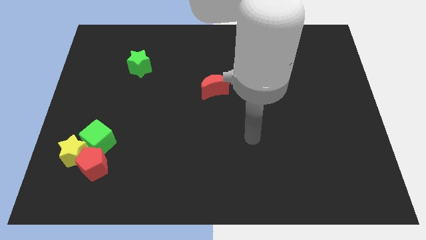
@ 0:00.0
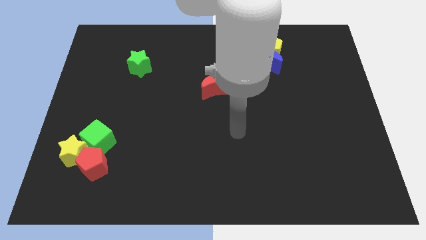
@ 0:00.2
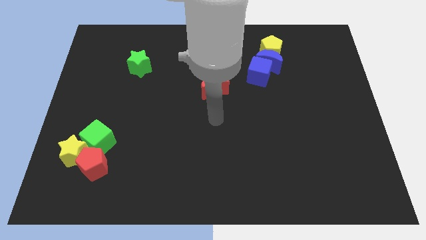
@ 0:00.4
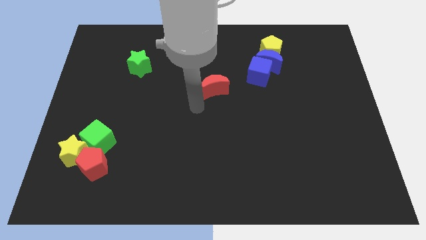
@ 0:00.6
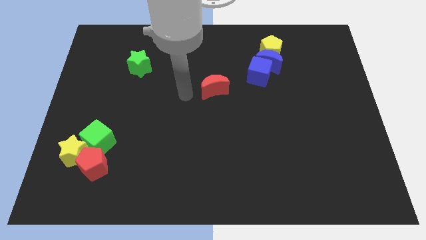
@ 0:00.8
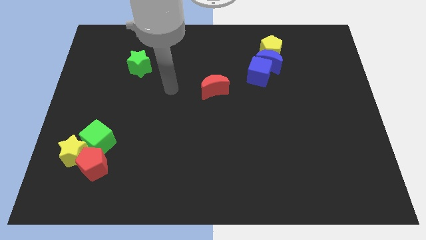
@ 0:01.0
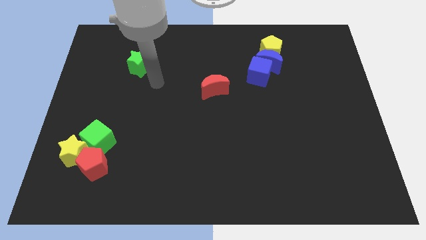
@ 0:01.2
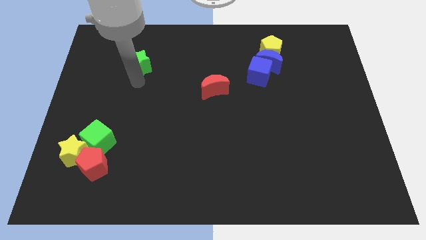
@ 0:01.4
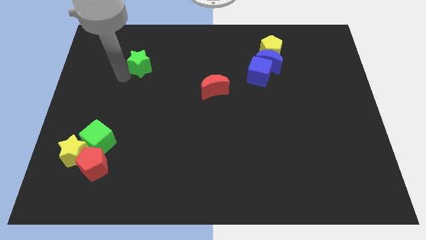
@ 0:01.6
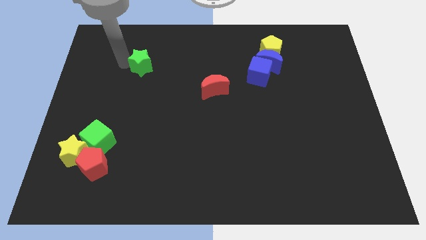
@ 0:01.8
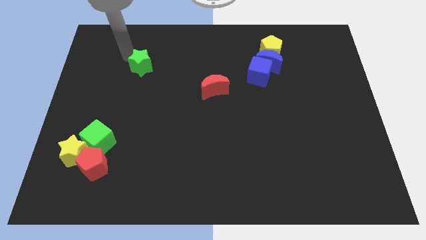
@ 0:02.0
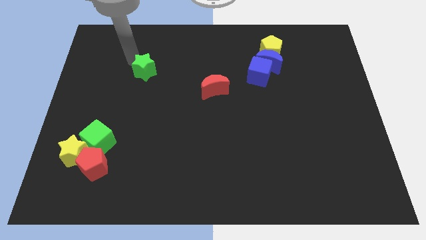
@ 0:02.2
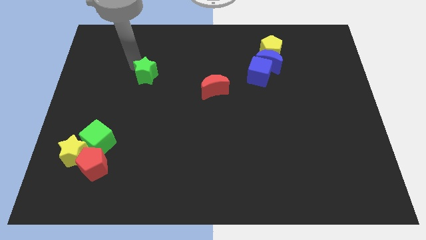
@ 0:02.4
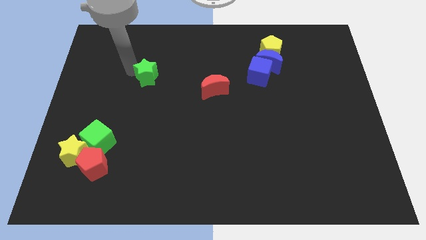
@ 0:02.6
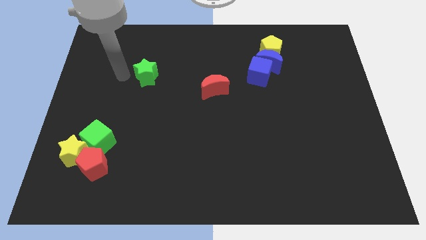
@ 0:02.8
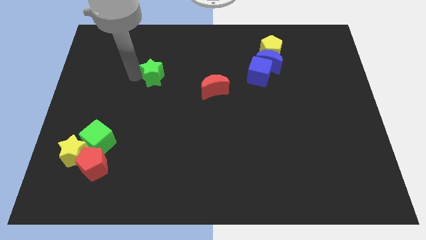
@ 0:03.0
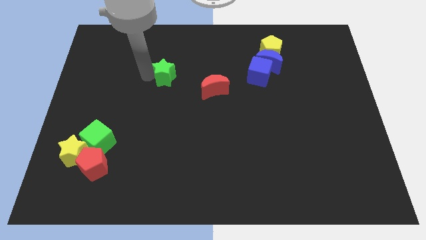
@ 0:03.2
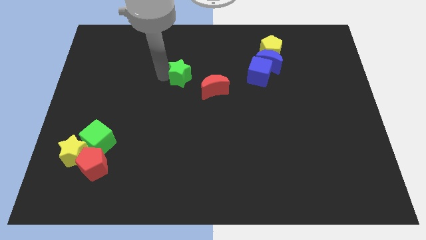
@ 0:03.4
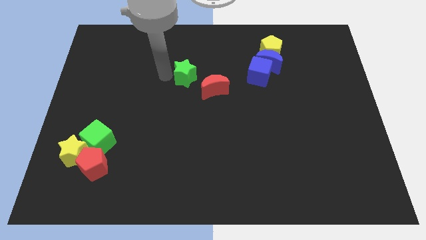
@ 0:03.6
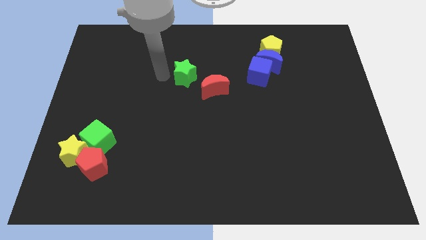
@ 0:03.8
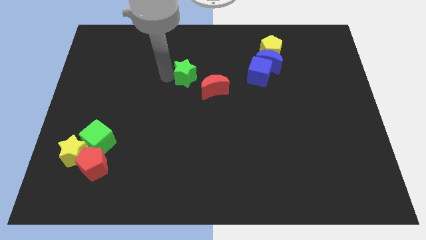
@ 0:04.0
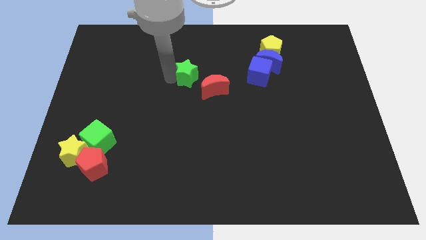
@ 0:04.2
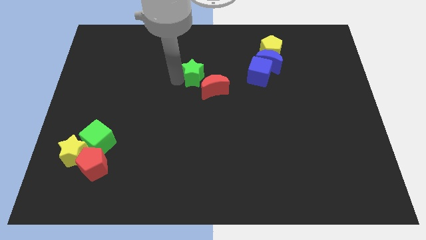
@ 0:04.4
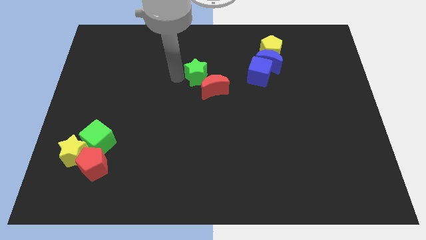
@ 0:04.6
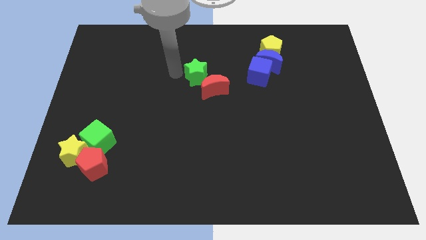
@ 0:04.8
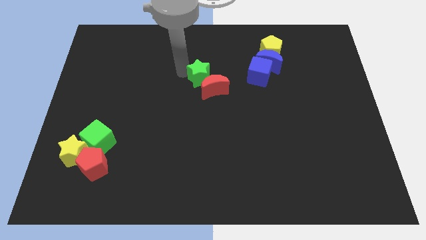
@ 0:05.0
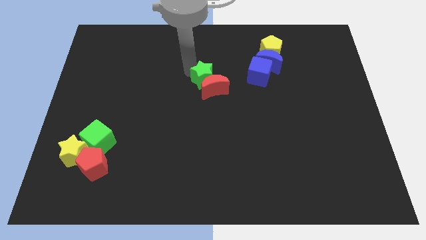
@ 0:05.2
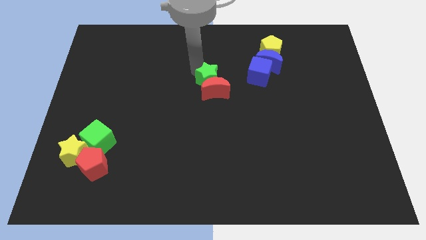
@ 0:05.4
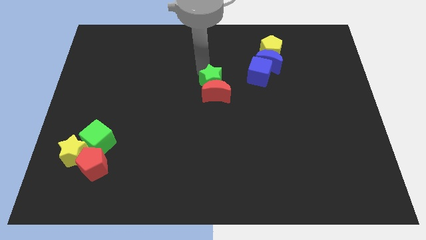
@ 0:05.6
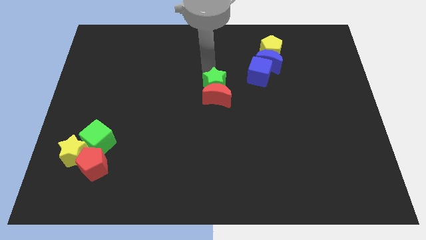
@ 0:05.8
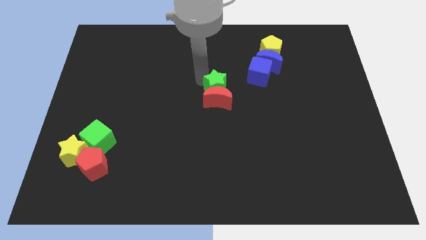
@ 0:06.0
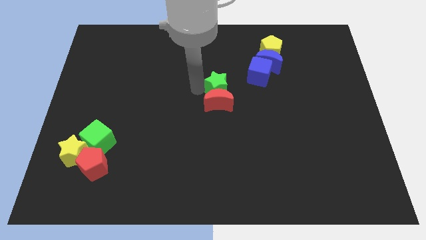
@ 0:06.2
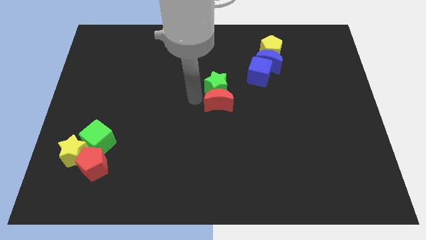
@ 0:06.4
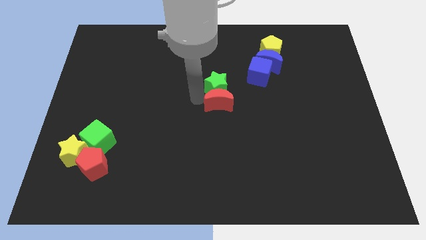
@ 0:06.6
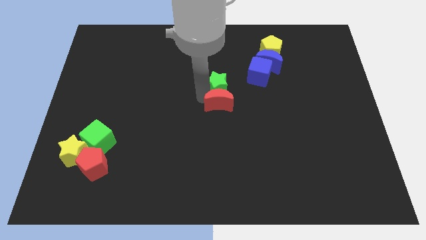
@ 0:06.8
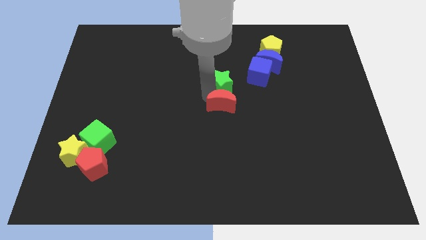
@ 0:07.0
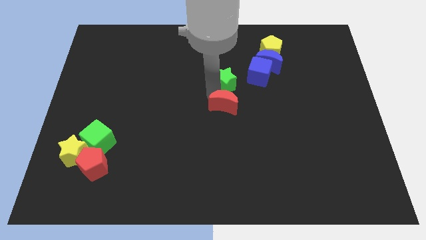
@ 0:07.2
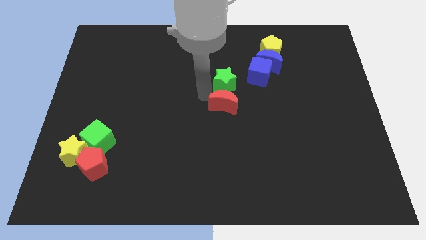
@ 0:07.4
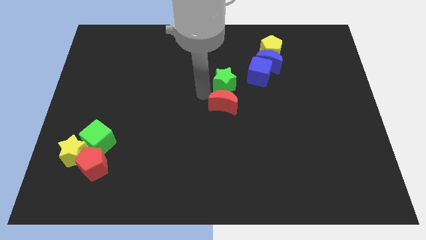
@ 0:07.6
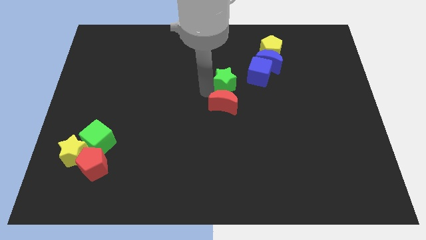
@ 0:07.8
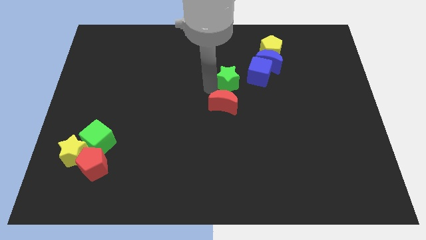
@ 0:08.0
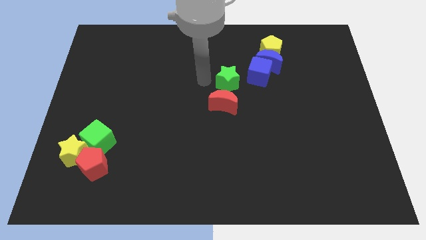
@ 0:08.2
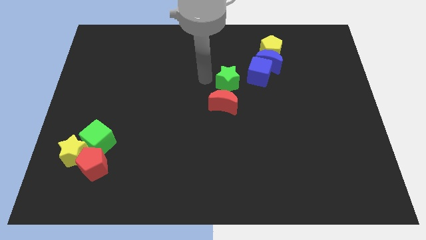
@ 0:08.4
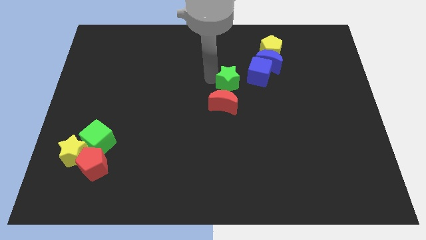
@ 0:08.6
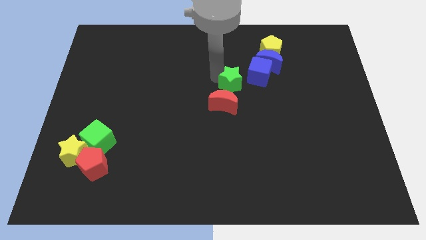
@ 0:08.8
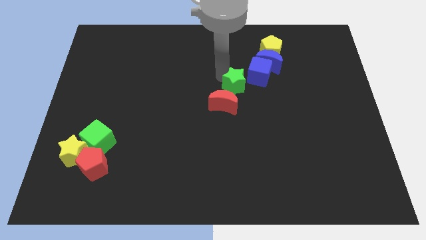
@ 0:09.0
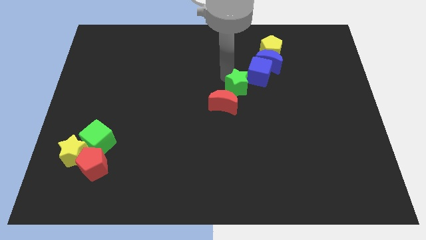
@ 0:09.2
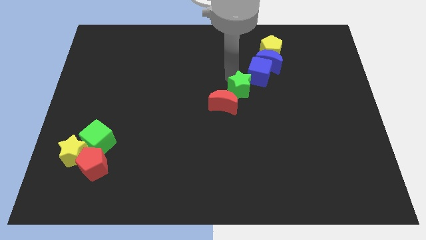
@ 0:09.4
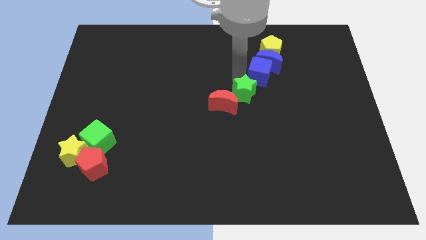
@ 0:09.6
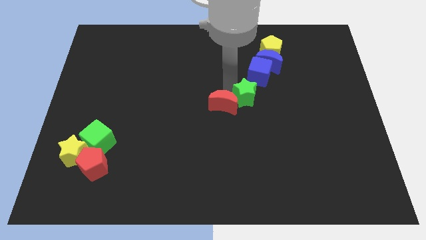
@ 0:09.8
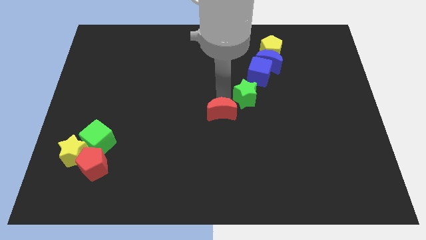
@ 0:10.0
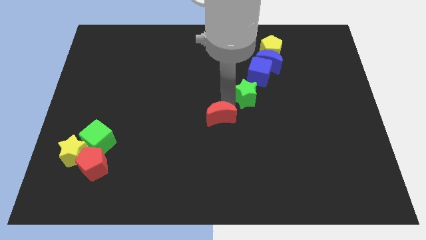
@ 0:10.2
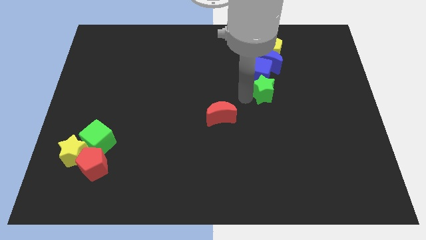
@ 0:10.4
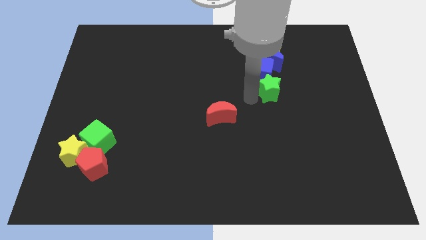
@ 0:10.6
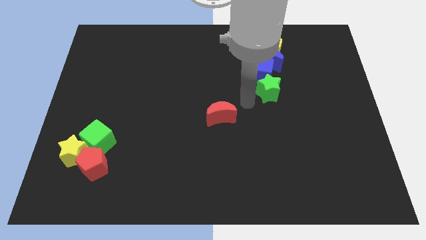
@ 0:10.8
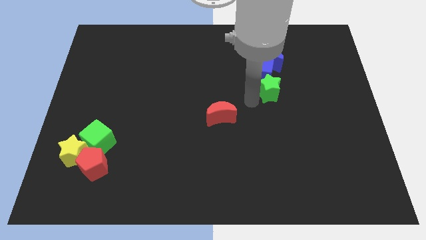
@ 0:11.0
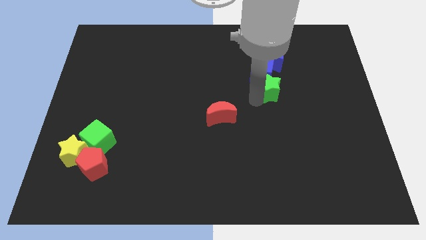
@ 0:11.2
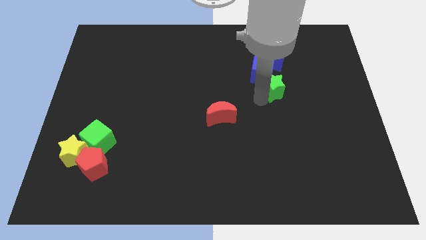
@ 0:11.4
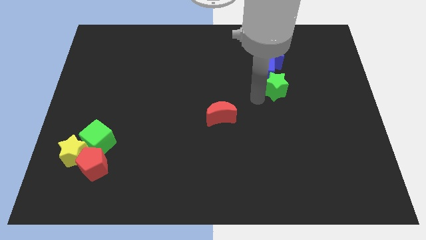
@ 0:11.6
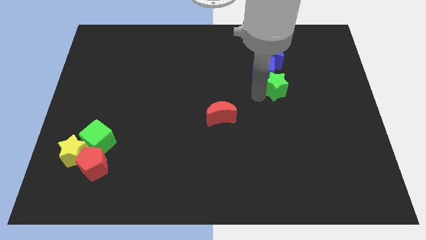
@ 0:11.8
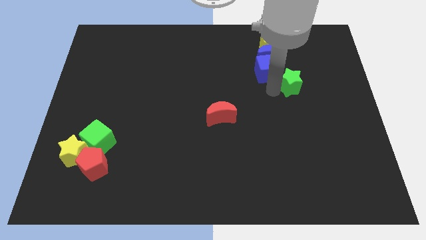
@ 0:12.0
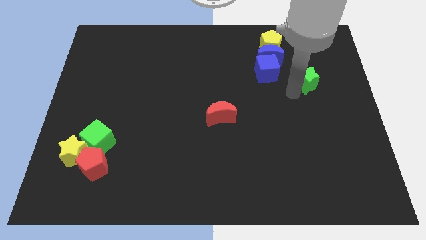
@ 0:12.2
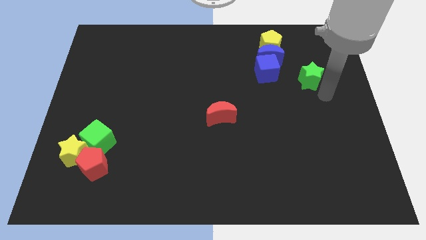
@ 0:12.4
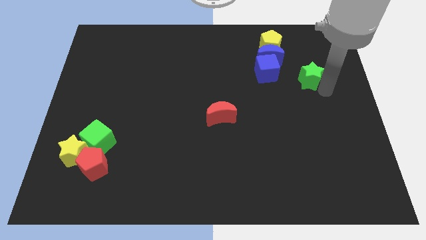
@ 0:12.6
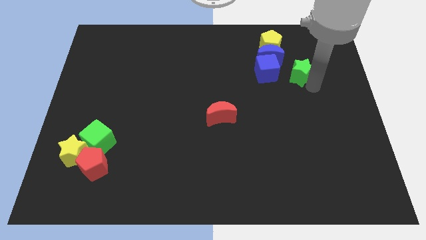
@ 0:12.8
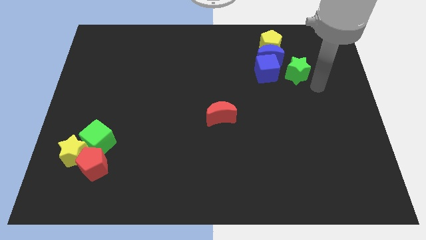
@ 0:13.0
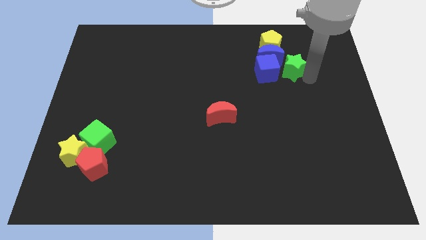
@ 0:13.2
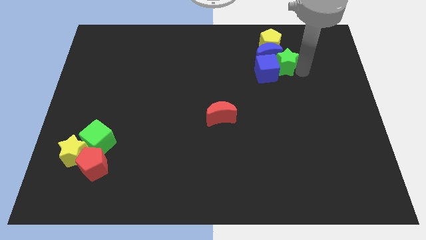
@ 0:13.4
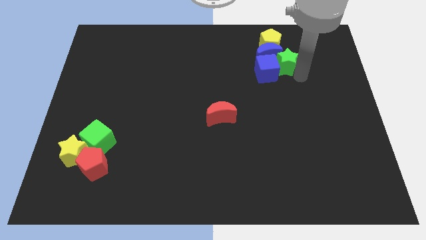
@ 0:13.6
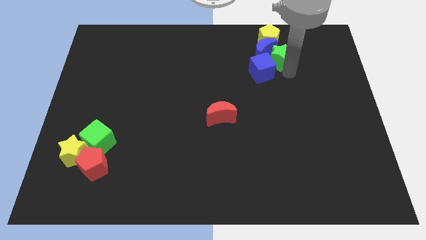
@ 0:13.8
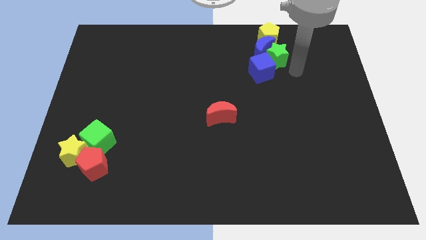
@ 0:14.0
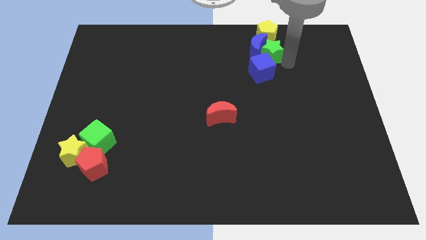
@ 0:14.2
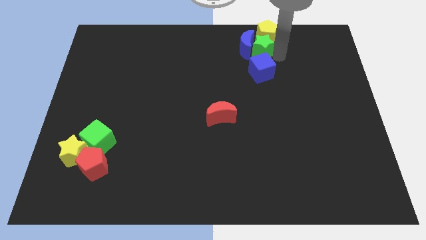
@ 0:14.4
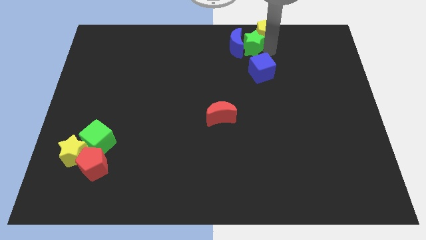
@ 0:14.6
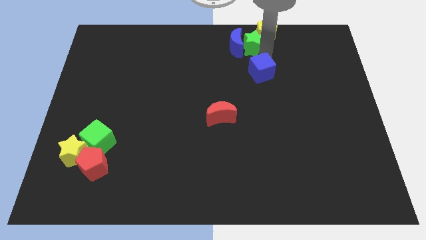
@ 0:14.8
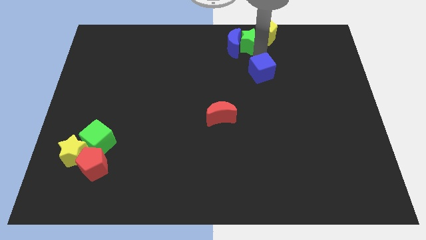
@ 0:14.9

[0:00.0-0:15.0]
move the green star to the top side
